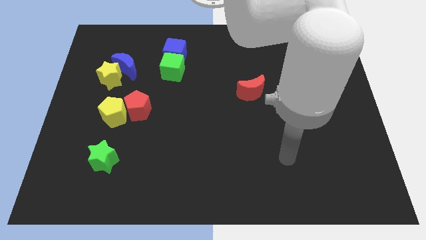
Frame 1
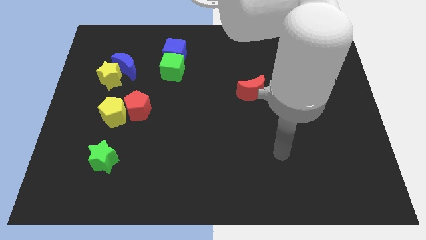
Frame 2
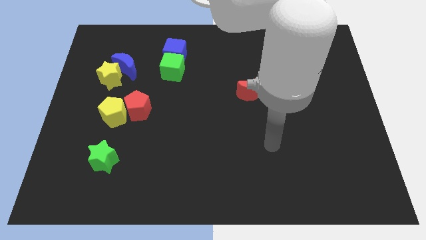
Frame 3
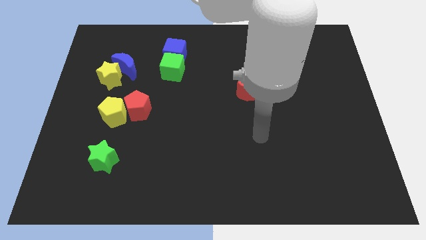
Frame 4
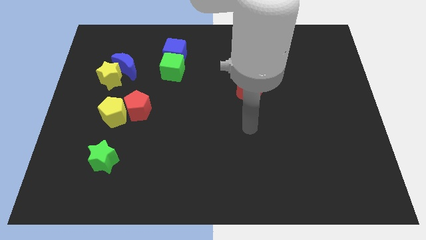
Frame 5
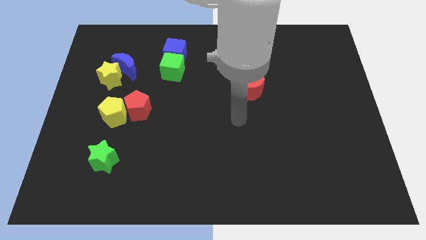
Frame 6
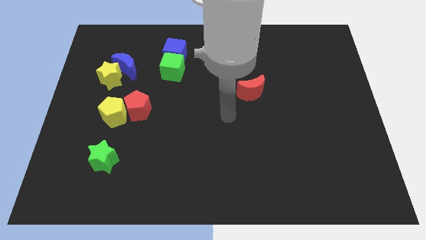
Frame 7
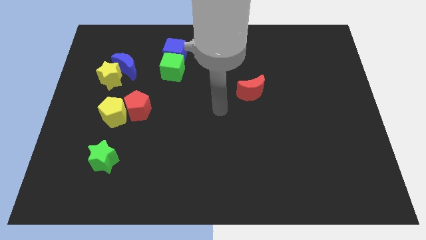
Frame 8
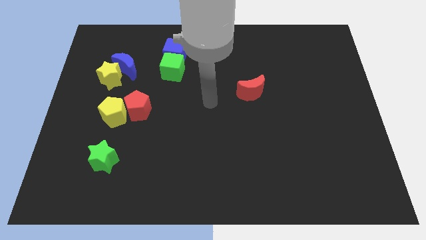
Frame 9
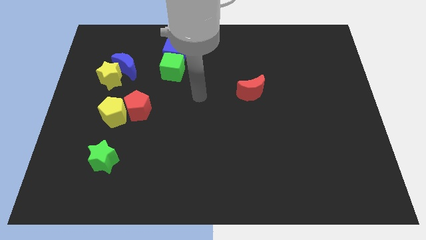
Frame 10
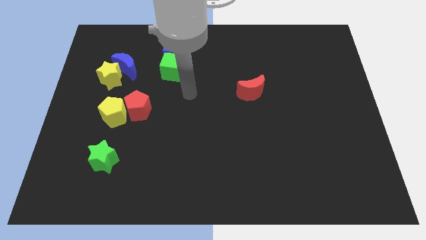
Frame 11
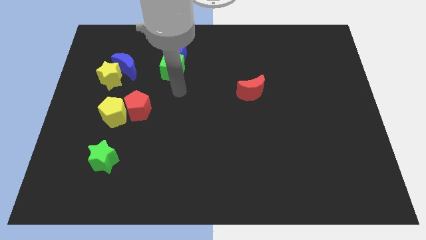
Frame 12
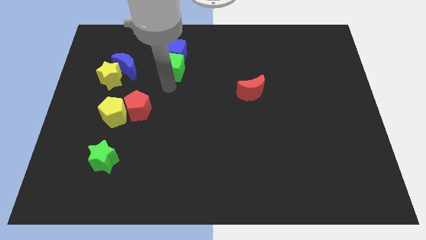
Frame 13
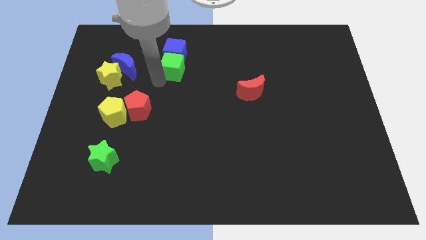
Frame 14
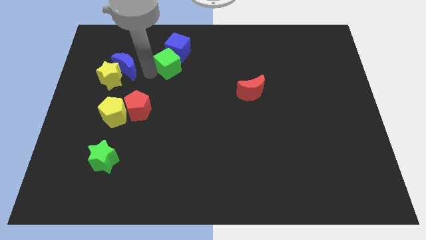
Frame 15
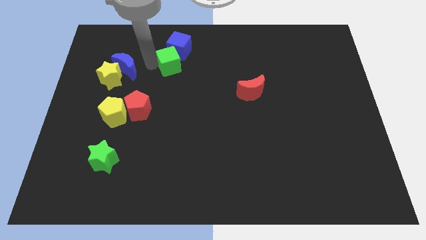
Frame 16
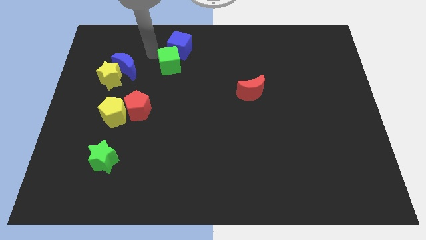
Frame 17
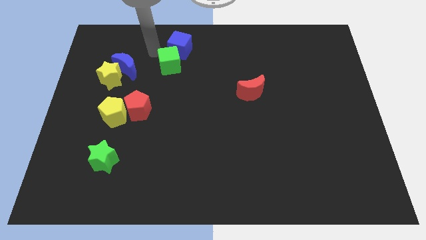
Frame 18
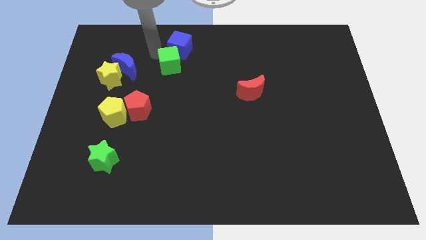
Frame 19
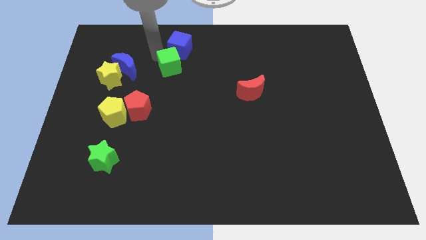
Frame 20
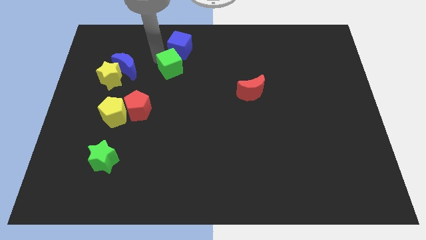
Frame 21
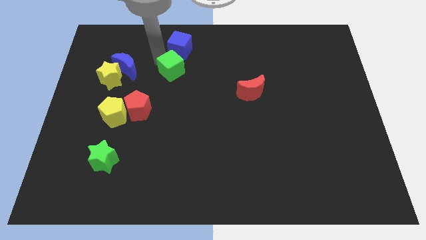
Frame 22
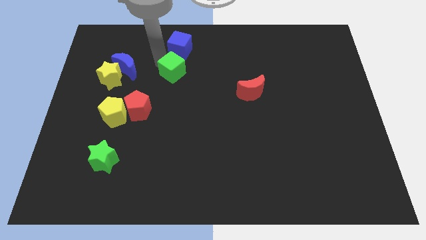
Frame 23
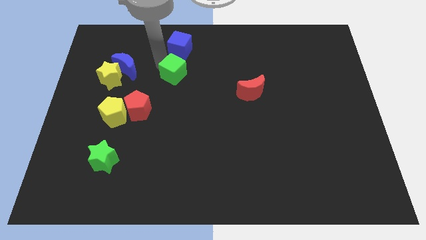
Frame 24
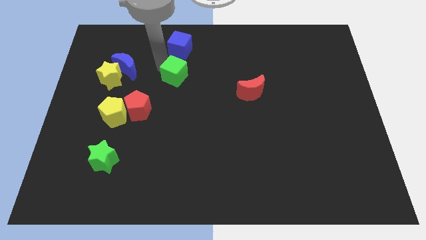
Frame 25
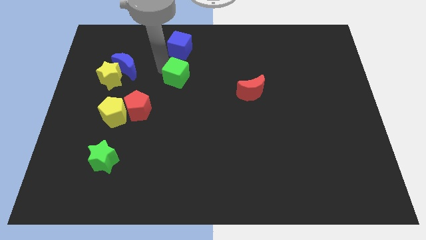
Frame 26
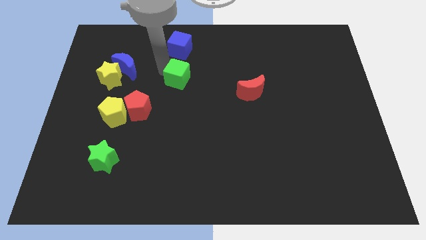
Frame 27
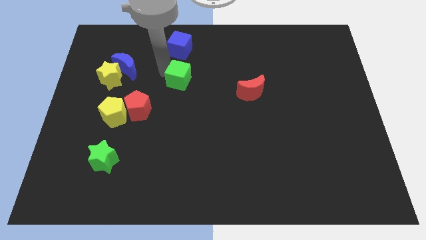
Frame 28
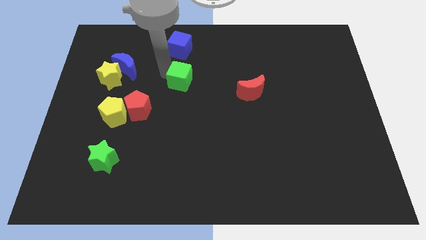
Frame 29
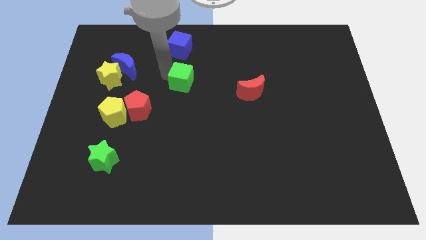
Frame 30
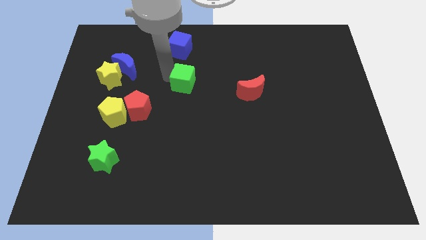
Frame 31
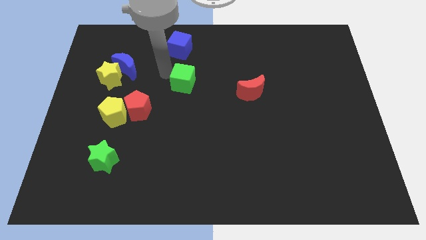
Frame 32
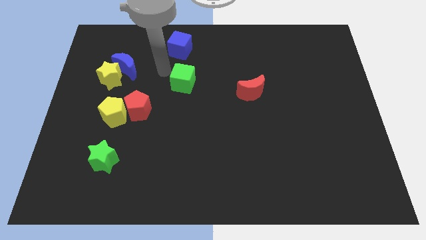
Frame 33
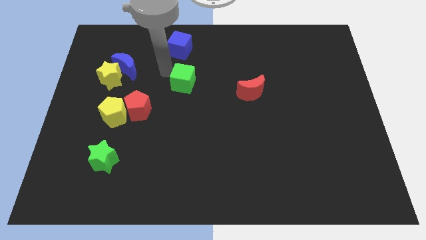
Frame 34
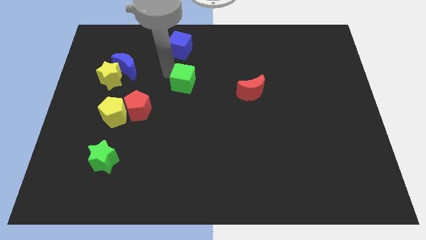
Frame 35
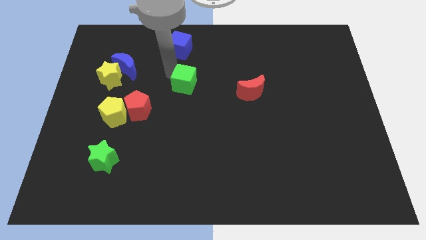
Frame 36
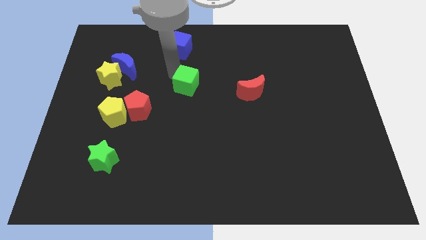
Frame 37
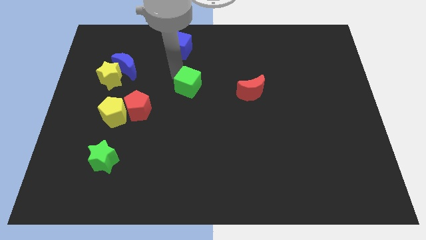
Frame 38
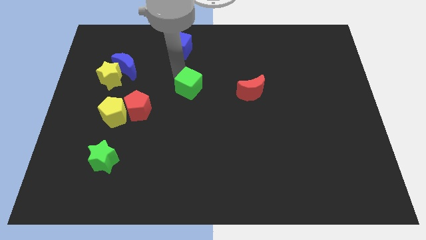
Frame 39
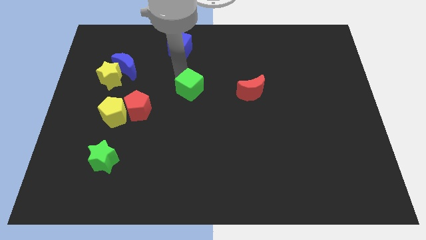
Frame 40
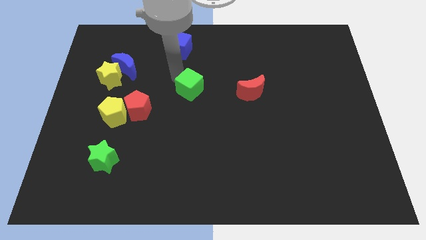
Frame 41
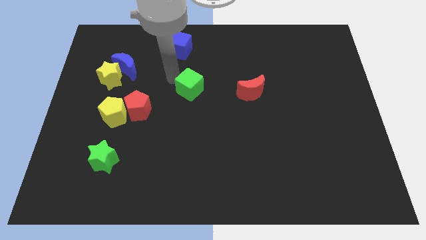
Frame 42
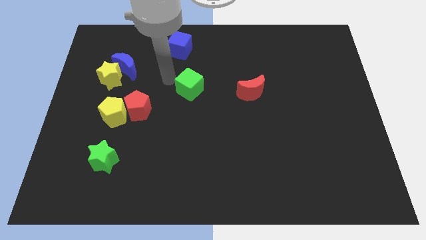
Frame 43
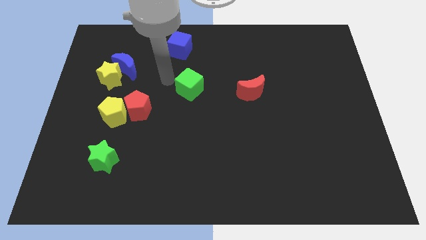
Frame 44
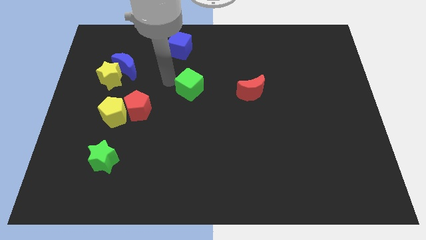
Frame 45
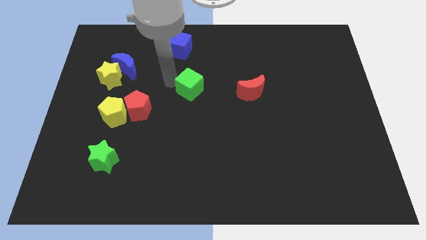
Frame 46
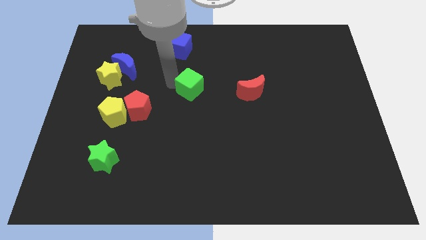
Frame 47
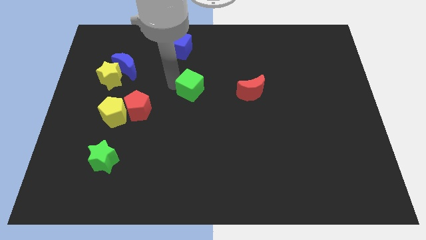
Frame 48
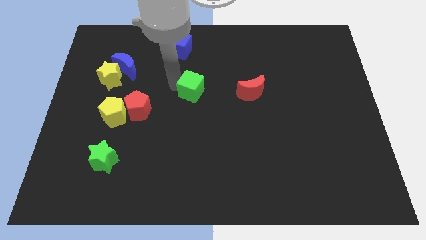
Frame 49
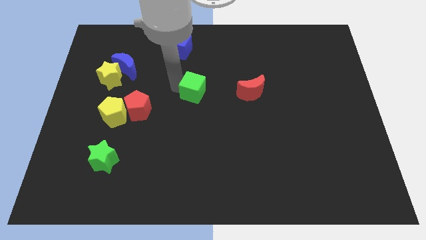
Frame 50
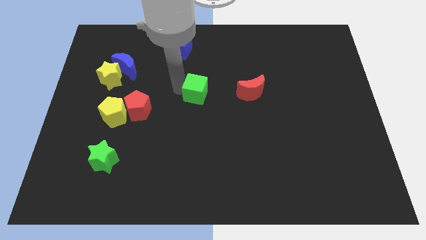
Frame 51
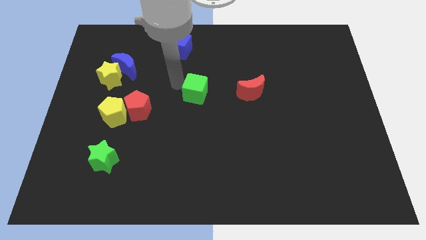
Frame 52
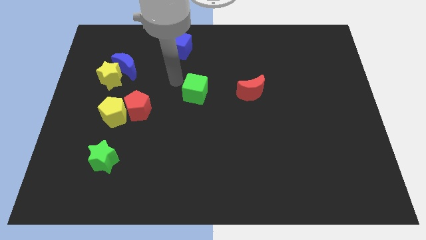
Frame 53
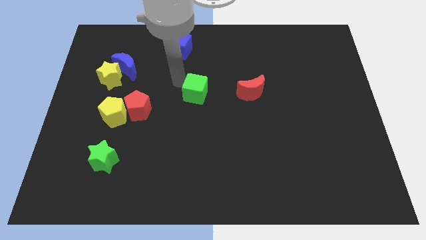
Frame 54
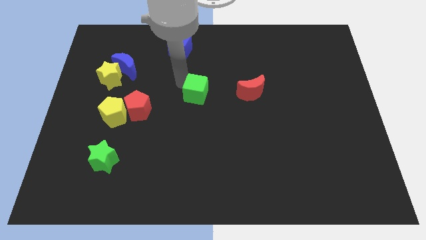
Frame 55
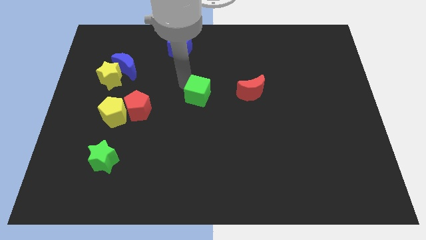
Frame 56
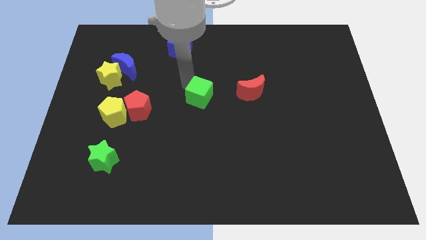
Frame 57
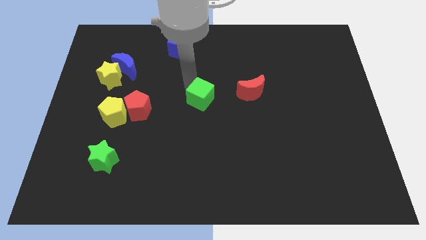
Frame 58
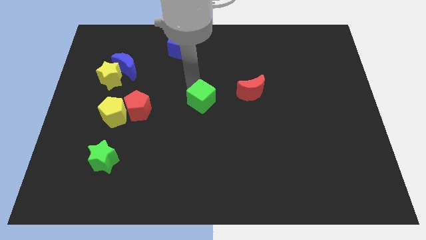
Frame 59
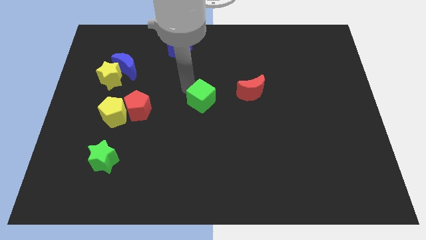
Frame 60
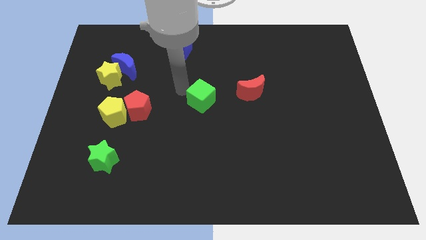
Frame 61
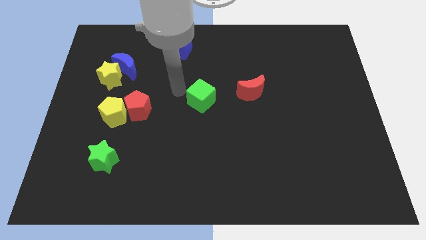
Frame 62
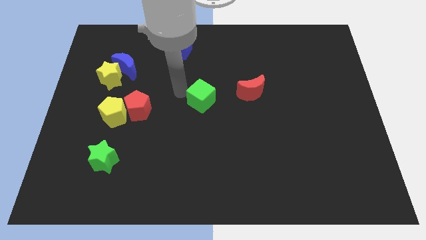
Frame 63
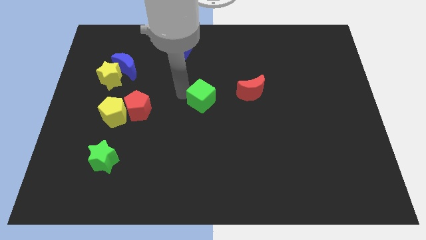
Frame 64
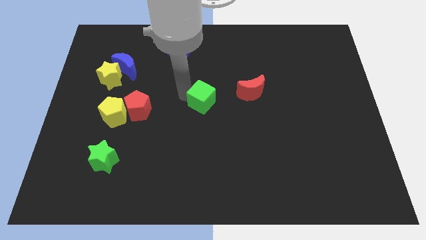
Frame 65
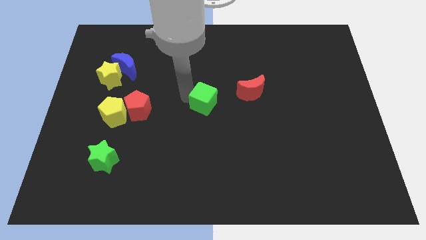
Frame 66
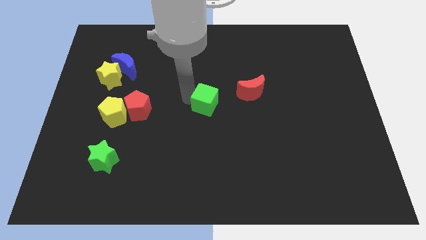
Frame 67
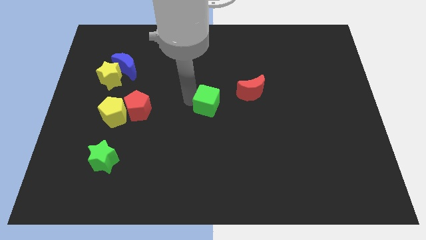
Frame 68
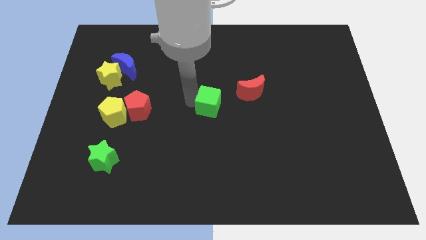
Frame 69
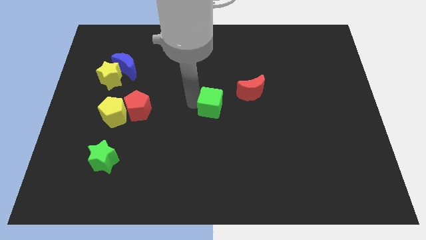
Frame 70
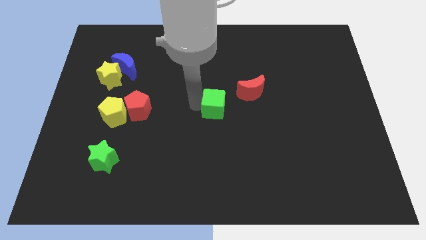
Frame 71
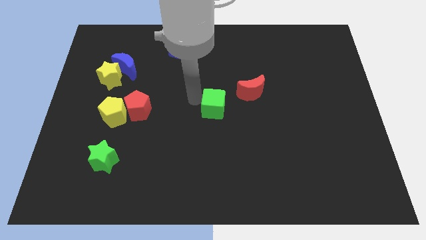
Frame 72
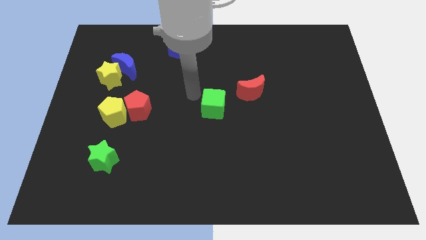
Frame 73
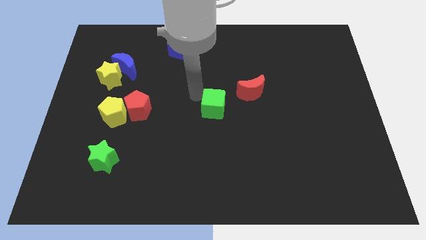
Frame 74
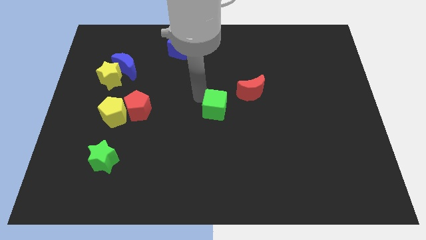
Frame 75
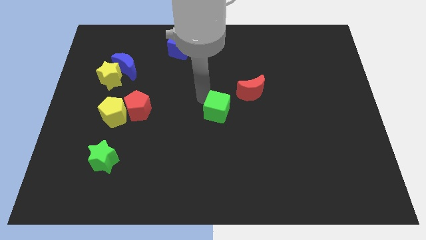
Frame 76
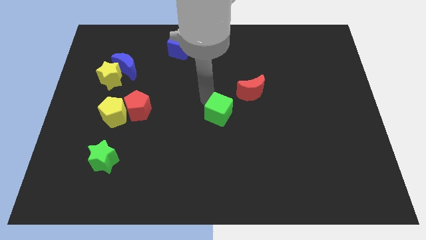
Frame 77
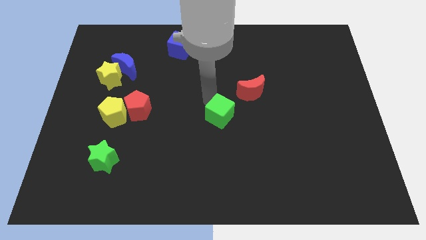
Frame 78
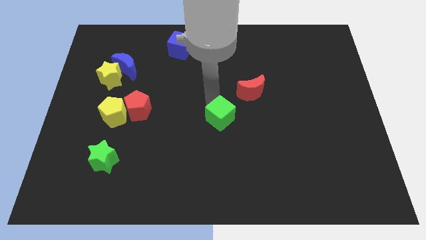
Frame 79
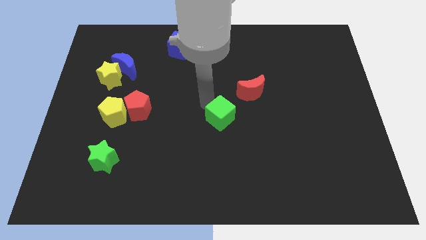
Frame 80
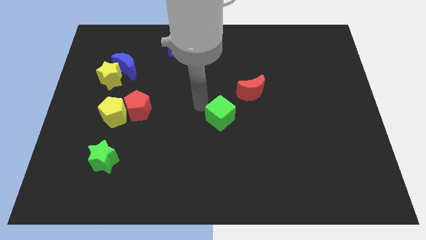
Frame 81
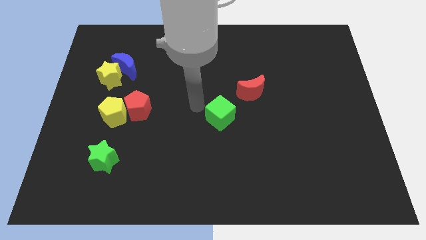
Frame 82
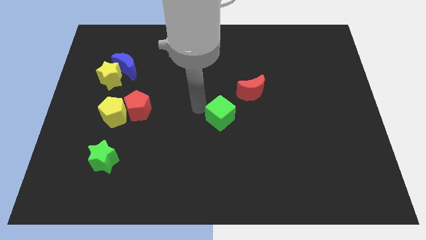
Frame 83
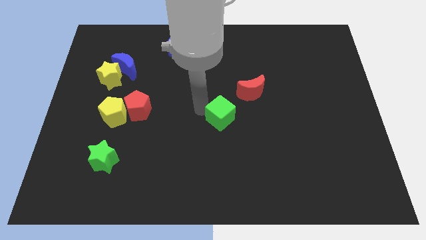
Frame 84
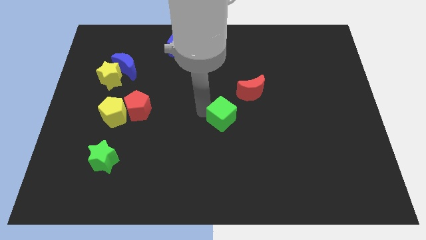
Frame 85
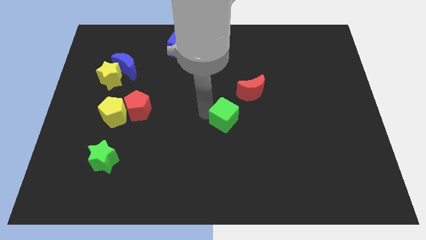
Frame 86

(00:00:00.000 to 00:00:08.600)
push the green cube diagonally down and to the right
